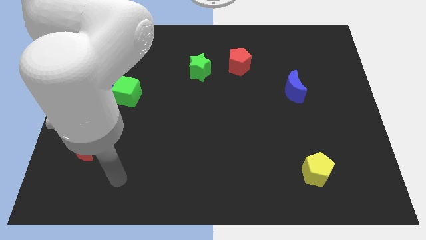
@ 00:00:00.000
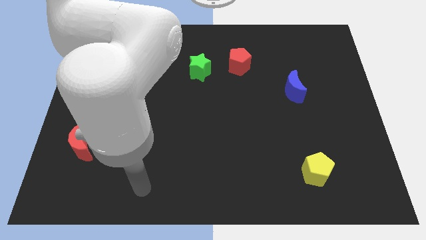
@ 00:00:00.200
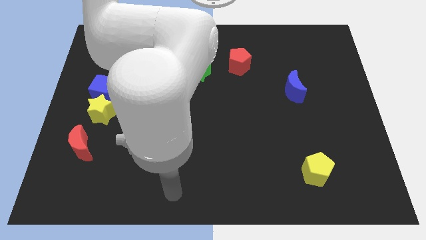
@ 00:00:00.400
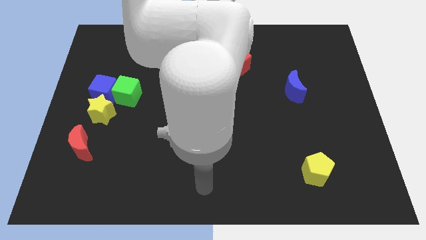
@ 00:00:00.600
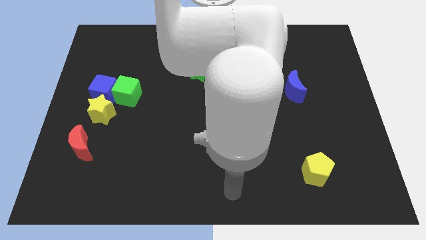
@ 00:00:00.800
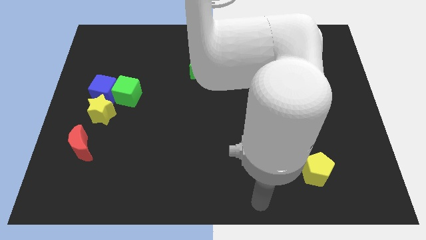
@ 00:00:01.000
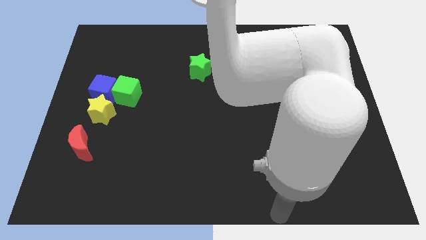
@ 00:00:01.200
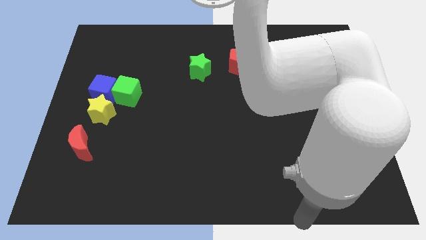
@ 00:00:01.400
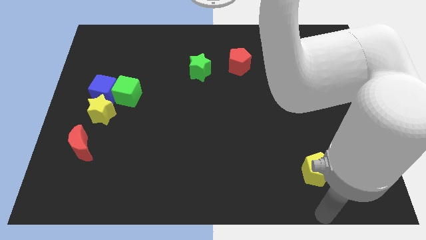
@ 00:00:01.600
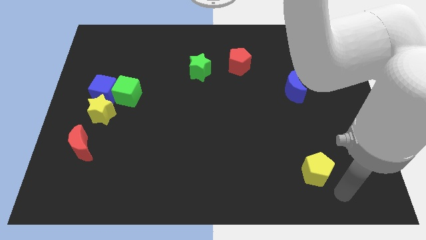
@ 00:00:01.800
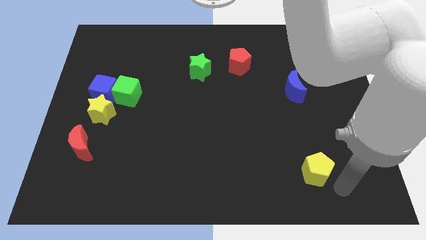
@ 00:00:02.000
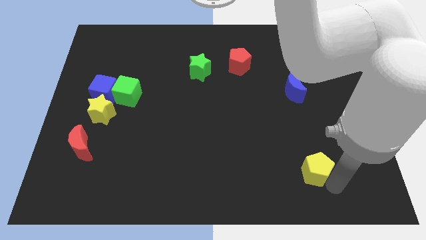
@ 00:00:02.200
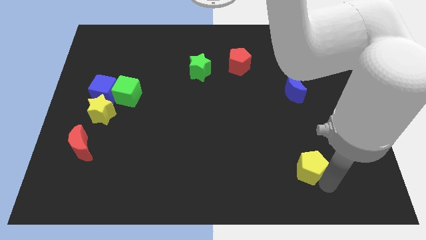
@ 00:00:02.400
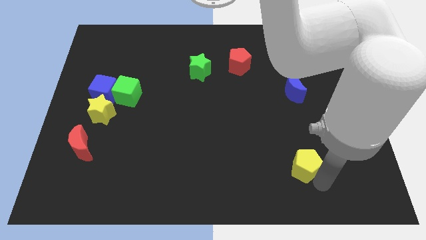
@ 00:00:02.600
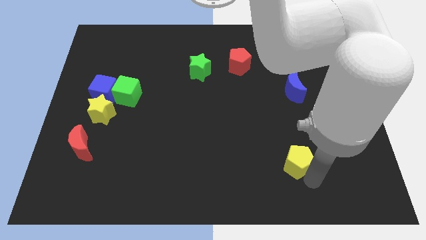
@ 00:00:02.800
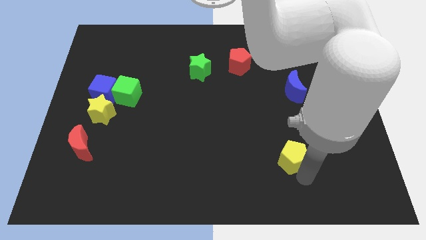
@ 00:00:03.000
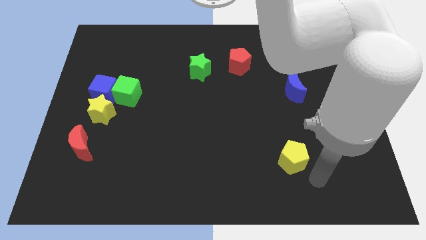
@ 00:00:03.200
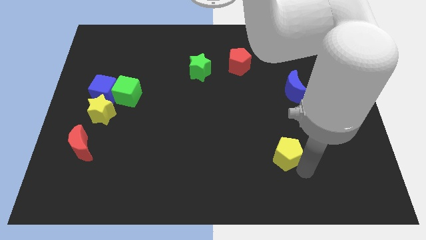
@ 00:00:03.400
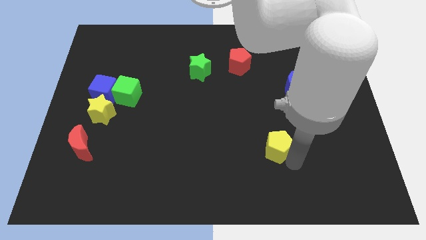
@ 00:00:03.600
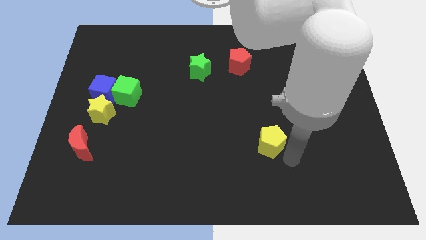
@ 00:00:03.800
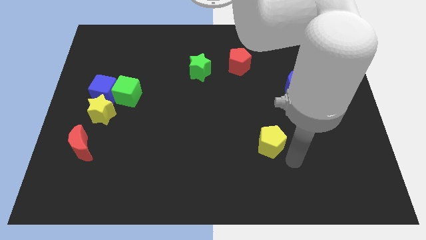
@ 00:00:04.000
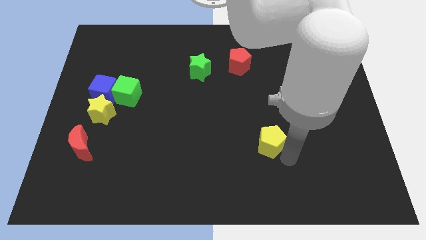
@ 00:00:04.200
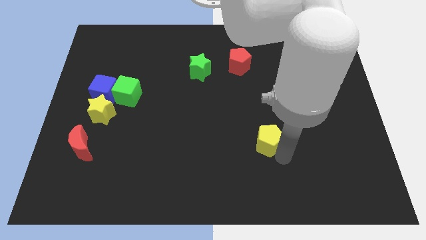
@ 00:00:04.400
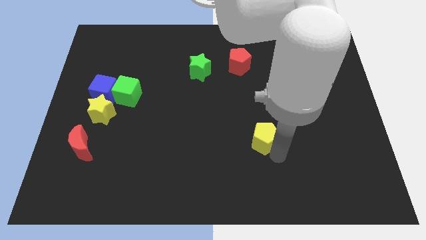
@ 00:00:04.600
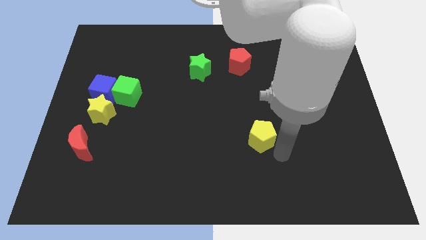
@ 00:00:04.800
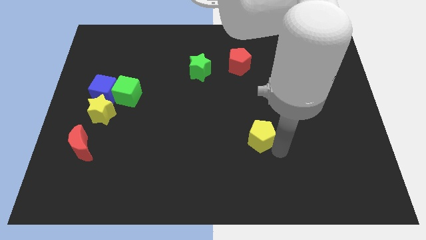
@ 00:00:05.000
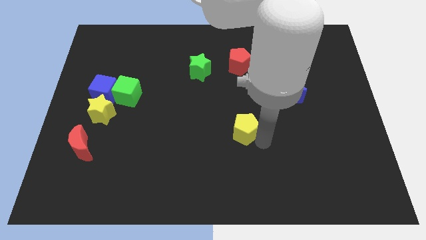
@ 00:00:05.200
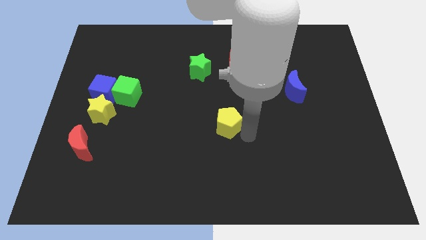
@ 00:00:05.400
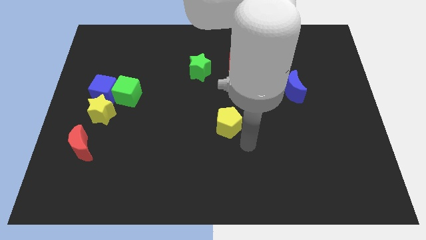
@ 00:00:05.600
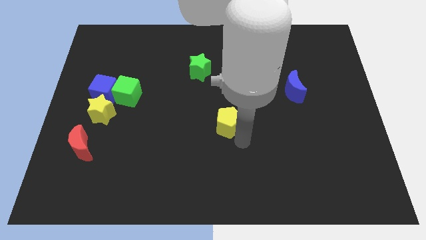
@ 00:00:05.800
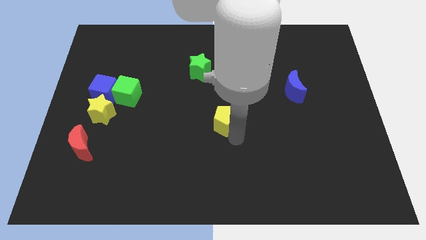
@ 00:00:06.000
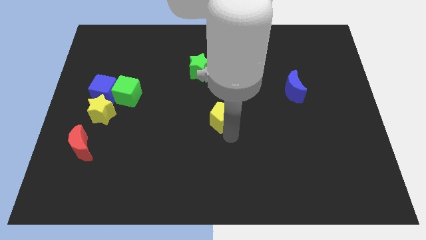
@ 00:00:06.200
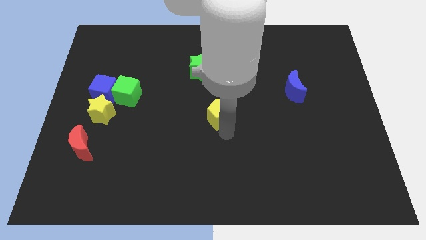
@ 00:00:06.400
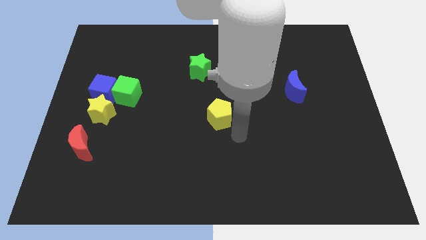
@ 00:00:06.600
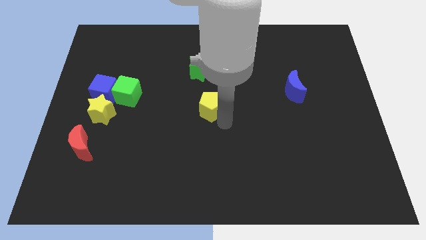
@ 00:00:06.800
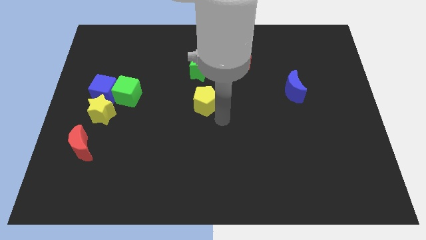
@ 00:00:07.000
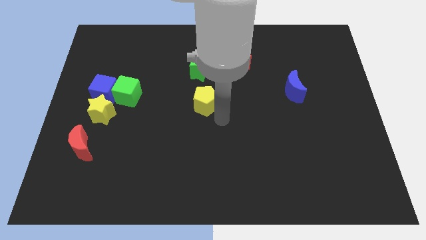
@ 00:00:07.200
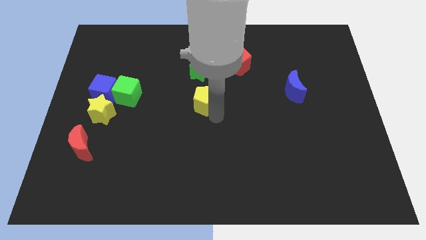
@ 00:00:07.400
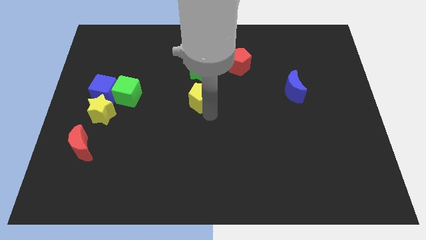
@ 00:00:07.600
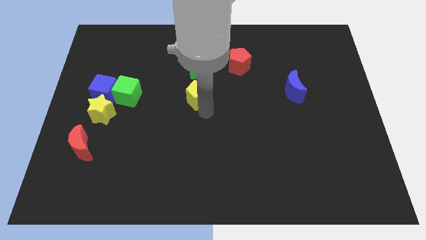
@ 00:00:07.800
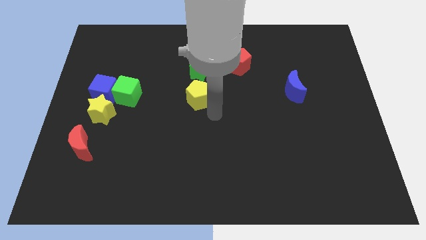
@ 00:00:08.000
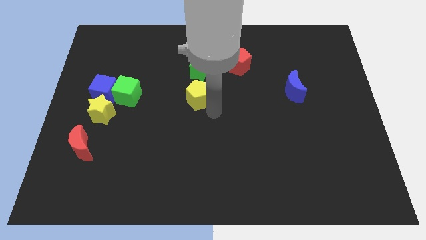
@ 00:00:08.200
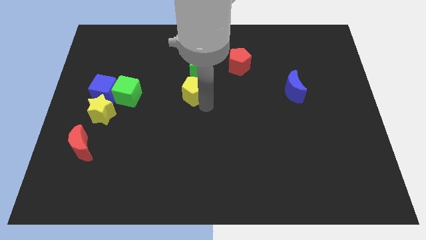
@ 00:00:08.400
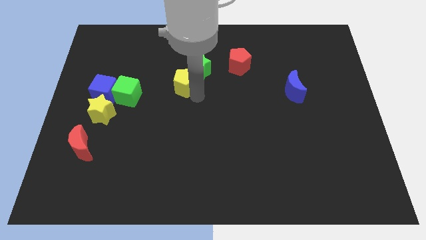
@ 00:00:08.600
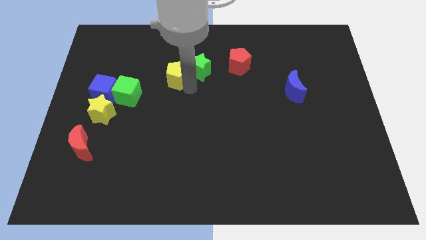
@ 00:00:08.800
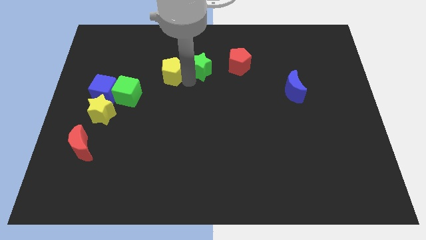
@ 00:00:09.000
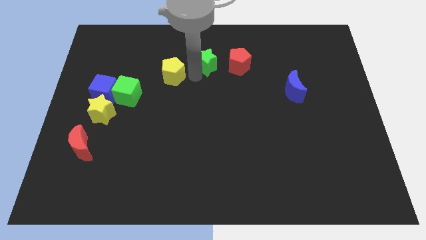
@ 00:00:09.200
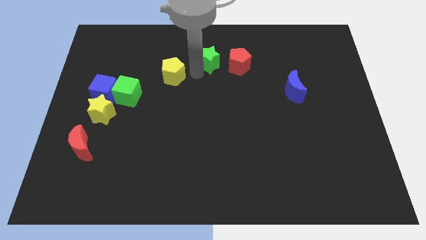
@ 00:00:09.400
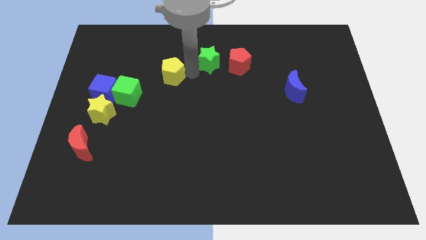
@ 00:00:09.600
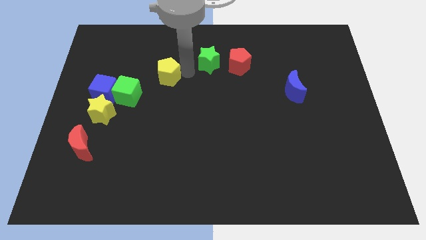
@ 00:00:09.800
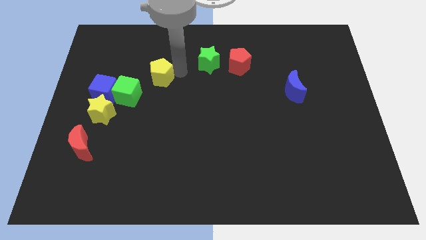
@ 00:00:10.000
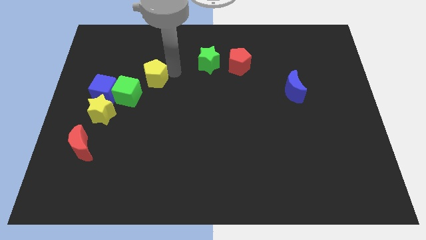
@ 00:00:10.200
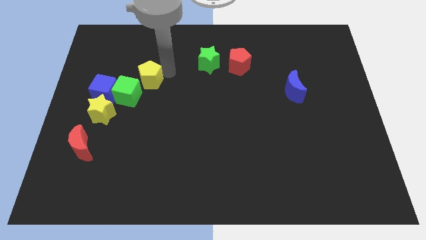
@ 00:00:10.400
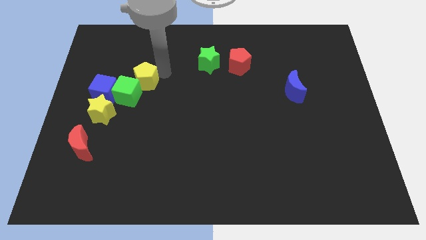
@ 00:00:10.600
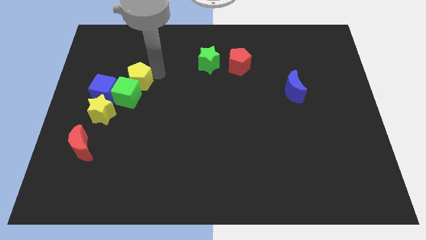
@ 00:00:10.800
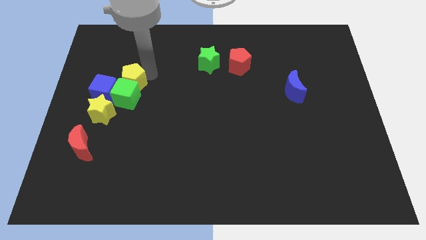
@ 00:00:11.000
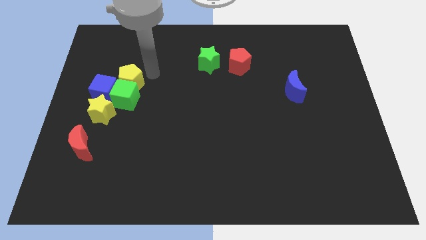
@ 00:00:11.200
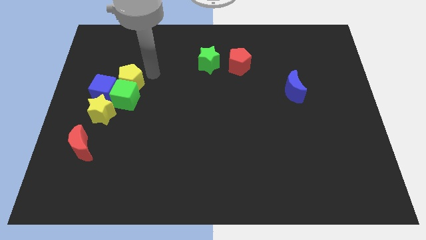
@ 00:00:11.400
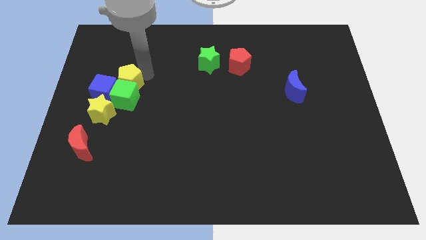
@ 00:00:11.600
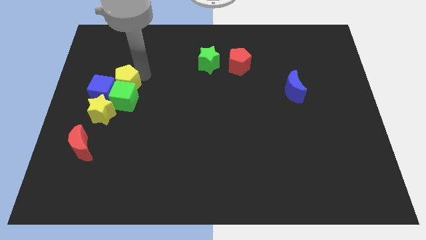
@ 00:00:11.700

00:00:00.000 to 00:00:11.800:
slide the yellow pentagon to the blue cube

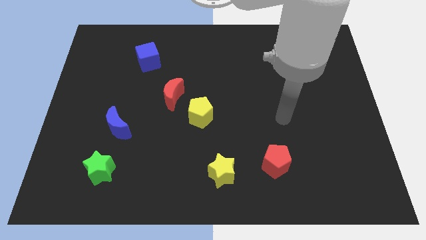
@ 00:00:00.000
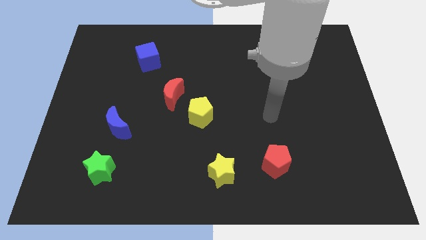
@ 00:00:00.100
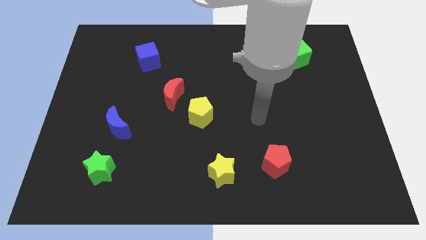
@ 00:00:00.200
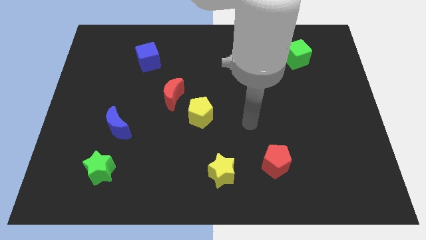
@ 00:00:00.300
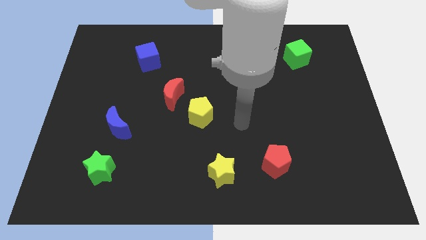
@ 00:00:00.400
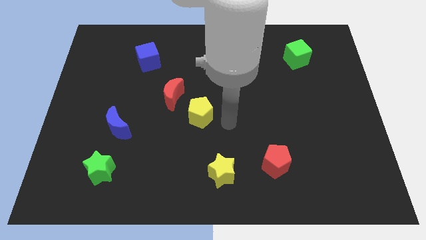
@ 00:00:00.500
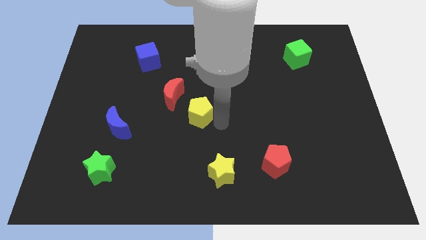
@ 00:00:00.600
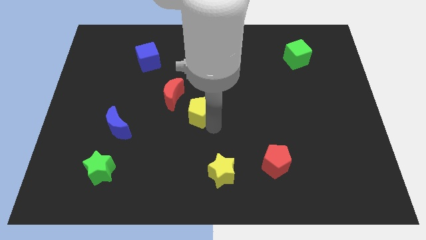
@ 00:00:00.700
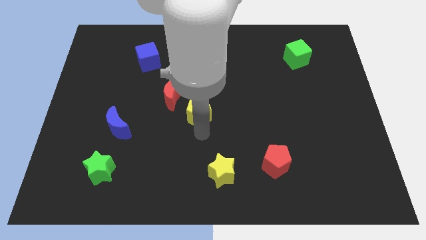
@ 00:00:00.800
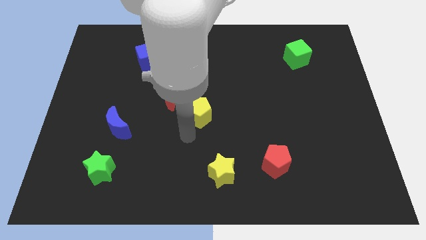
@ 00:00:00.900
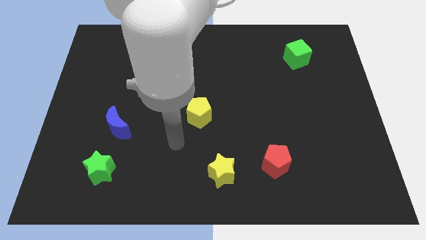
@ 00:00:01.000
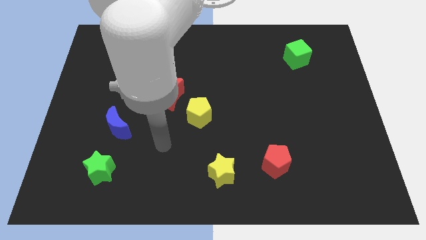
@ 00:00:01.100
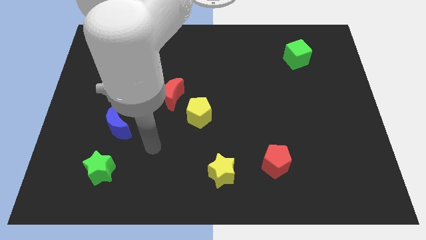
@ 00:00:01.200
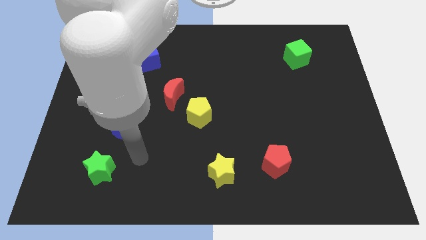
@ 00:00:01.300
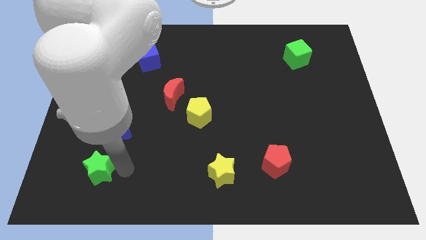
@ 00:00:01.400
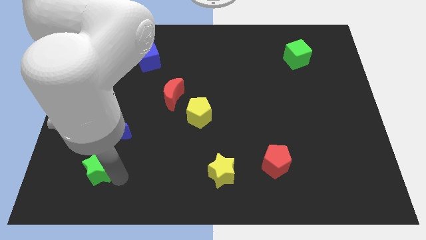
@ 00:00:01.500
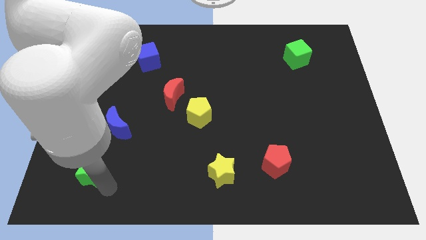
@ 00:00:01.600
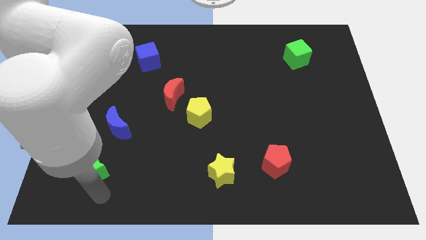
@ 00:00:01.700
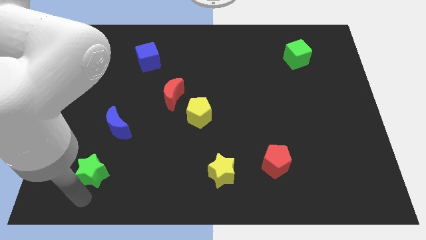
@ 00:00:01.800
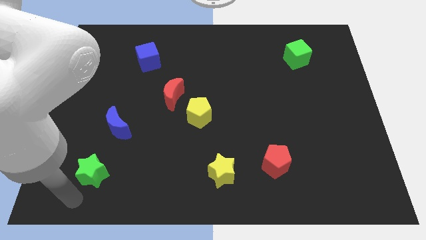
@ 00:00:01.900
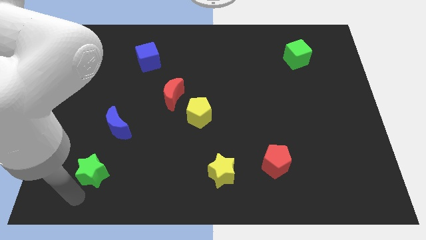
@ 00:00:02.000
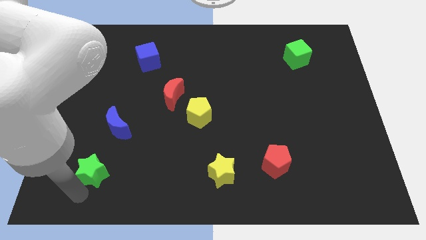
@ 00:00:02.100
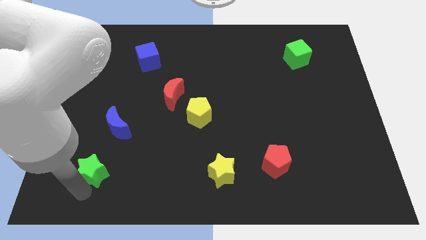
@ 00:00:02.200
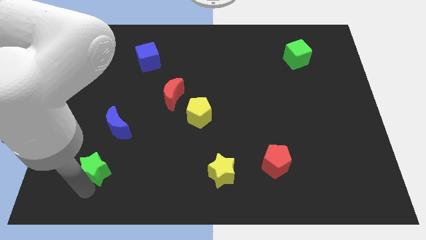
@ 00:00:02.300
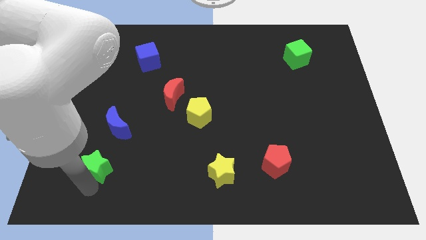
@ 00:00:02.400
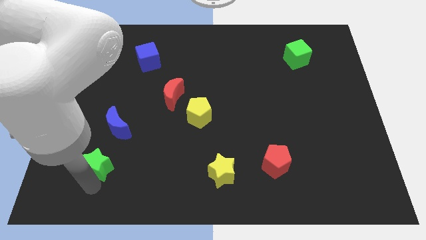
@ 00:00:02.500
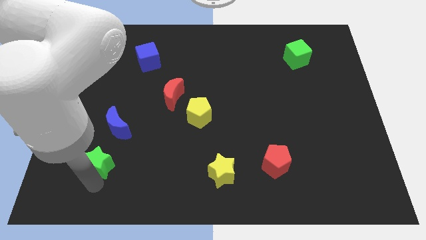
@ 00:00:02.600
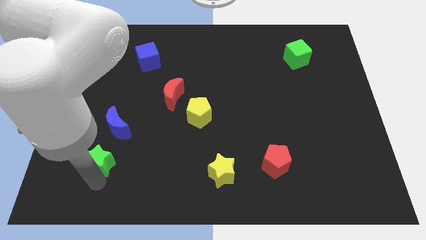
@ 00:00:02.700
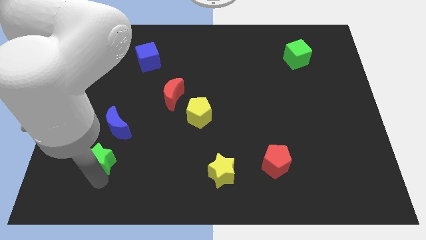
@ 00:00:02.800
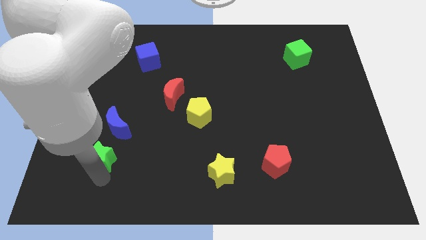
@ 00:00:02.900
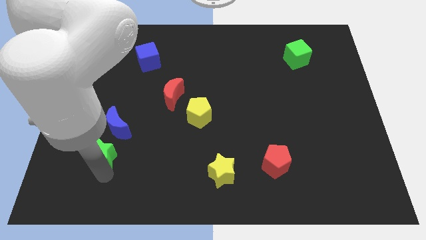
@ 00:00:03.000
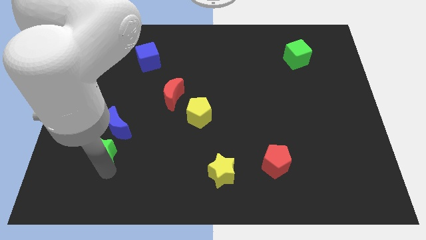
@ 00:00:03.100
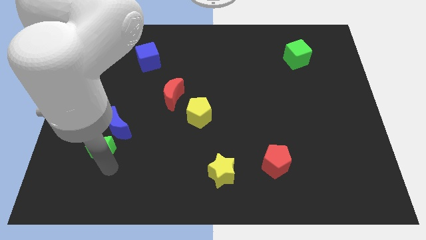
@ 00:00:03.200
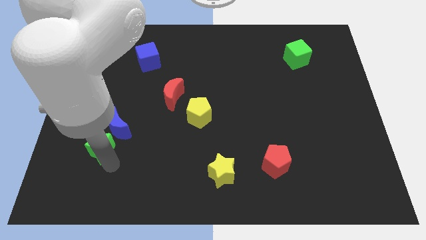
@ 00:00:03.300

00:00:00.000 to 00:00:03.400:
push the green star next to the blue moon
